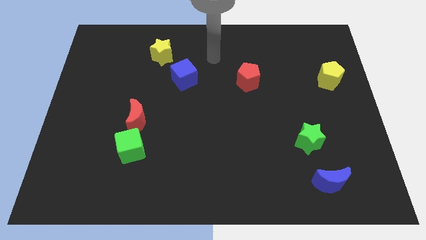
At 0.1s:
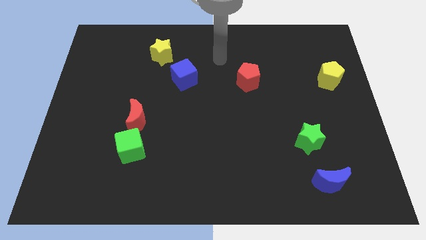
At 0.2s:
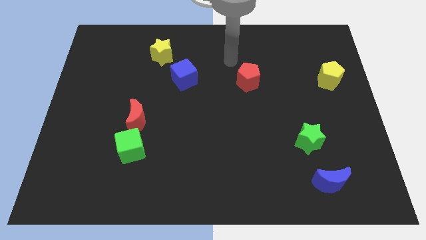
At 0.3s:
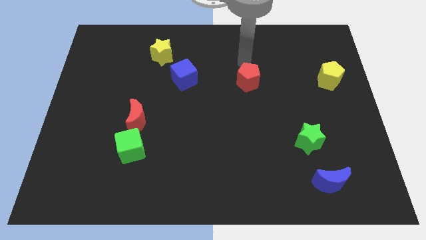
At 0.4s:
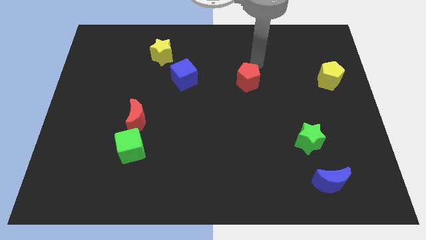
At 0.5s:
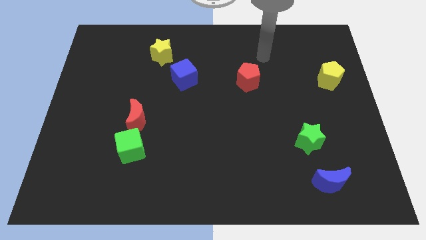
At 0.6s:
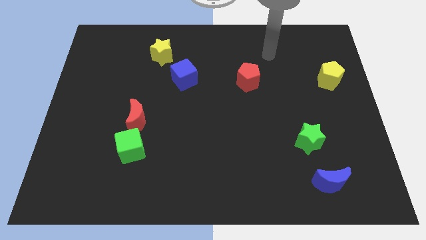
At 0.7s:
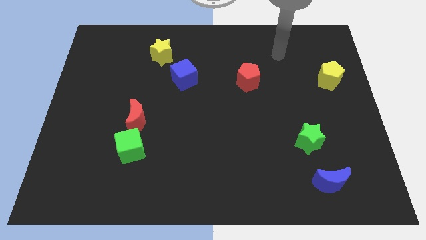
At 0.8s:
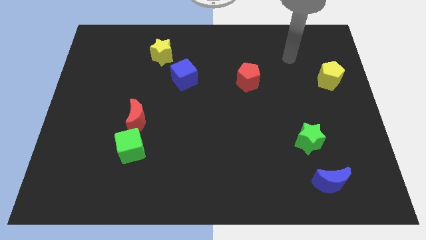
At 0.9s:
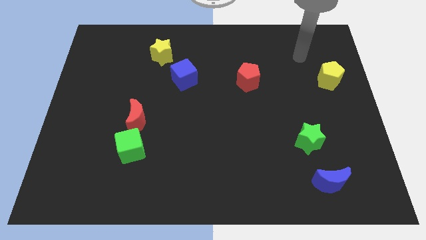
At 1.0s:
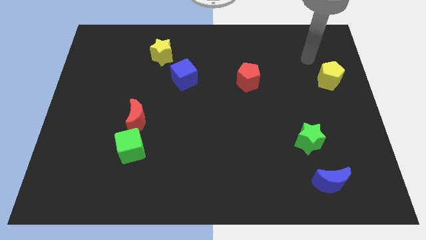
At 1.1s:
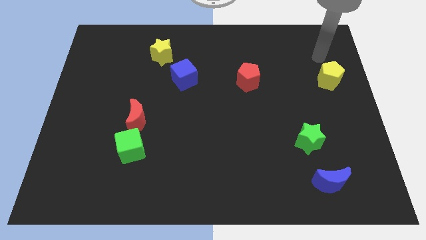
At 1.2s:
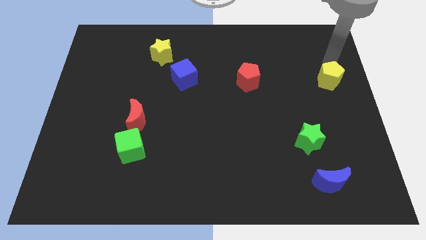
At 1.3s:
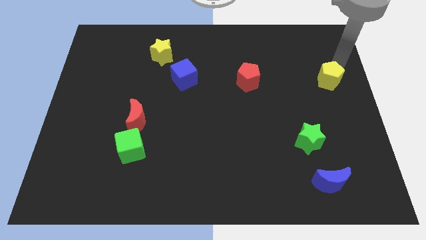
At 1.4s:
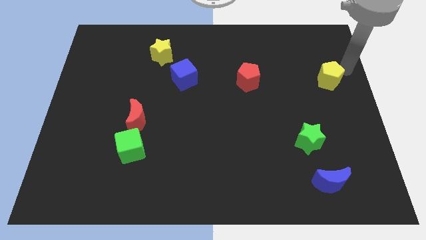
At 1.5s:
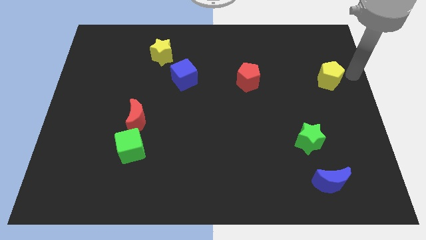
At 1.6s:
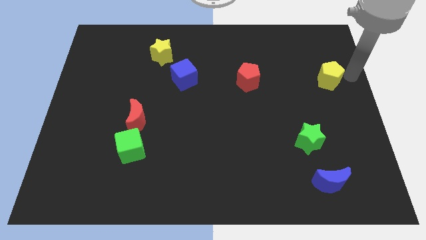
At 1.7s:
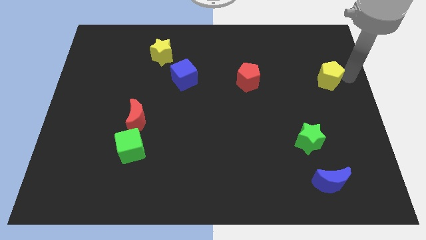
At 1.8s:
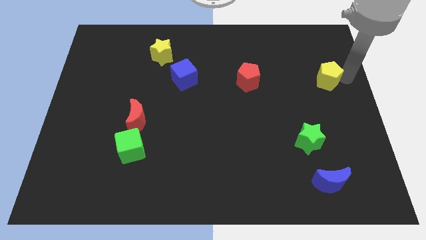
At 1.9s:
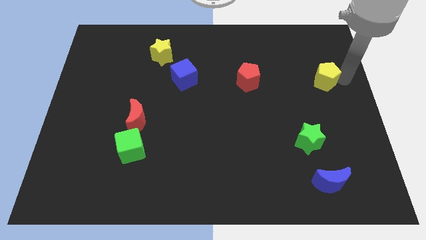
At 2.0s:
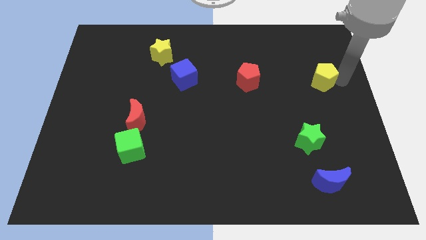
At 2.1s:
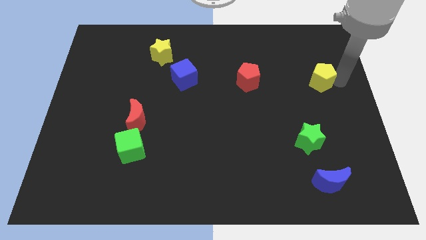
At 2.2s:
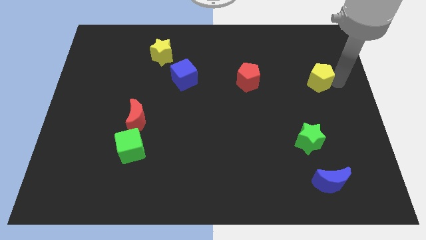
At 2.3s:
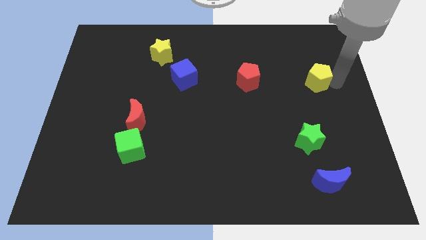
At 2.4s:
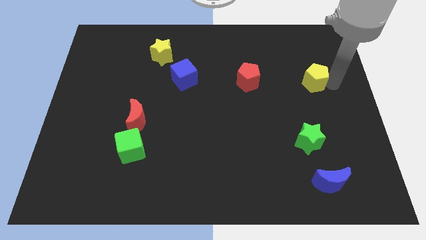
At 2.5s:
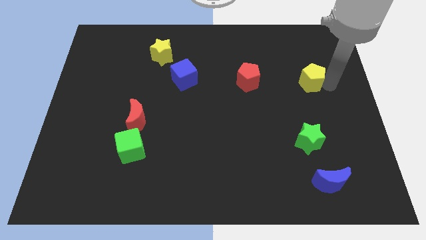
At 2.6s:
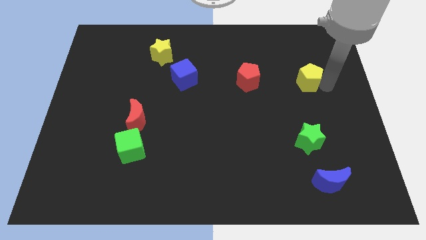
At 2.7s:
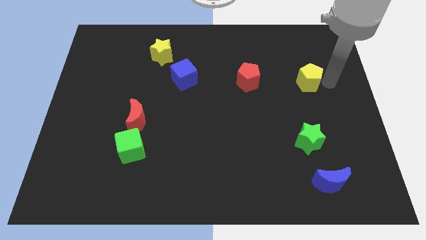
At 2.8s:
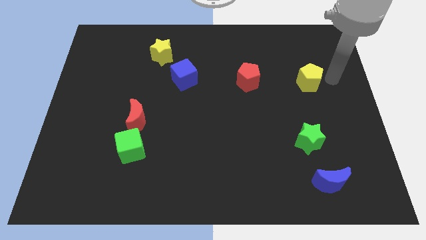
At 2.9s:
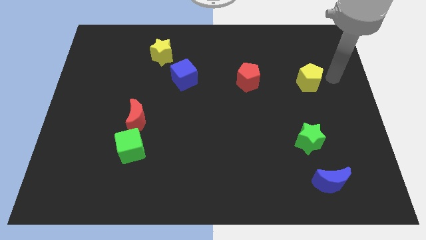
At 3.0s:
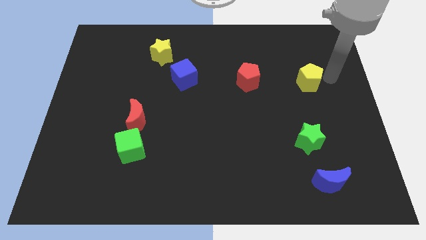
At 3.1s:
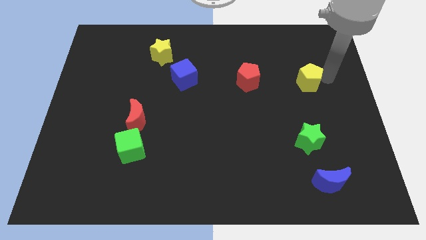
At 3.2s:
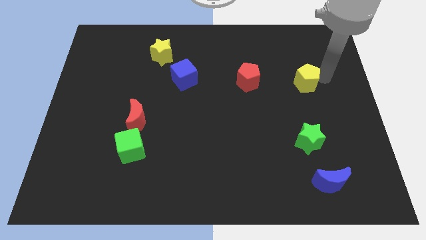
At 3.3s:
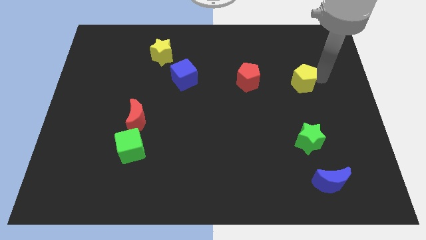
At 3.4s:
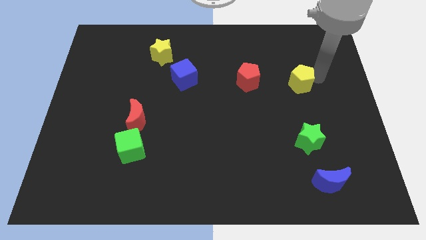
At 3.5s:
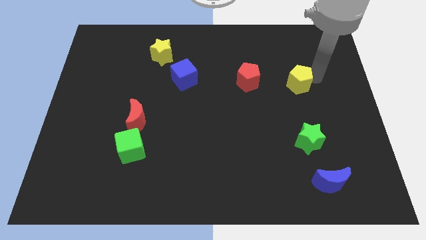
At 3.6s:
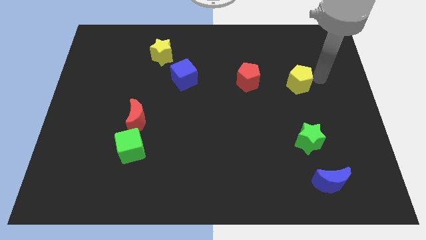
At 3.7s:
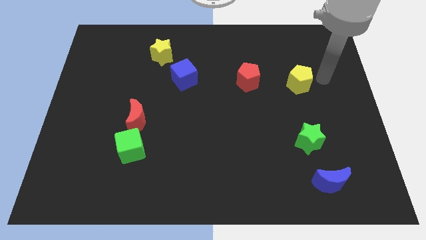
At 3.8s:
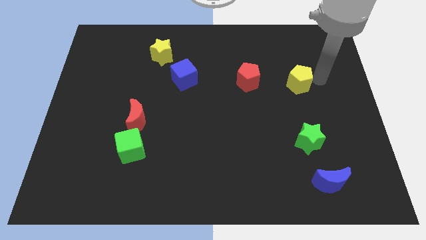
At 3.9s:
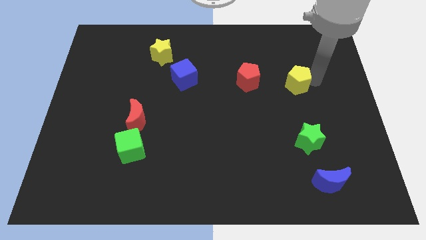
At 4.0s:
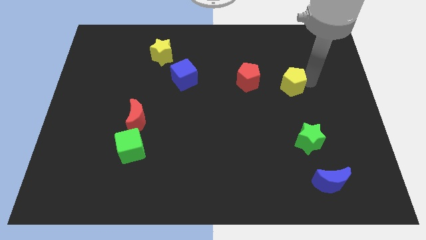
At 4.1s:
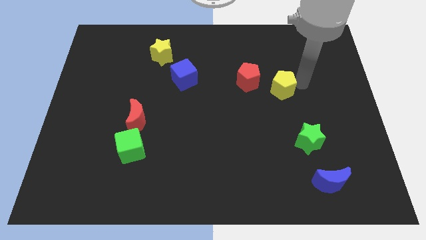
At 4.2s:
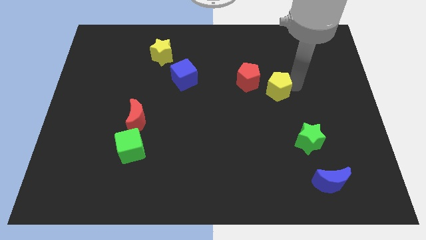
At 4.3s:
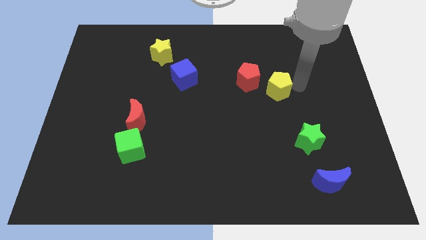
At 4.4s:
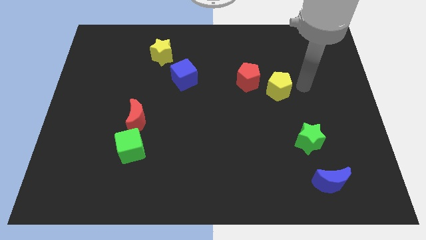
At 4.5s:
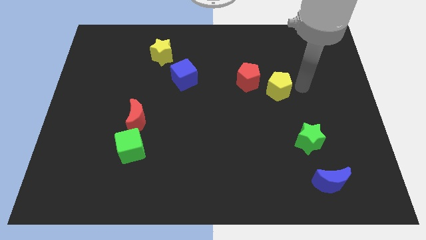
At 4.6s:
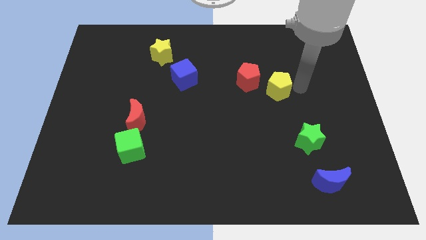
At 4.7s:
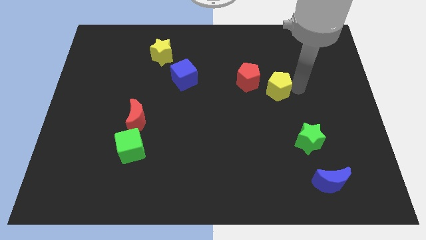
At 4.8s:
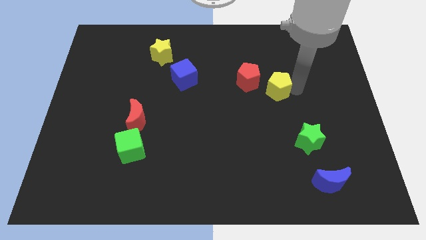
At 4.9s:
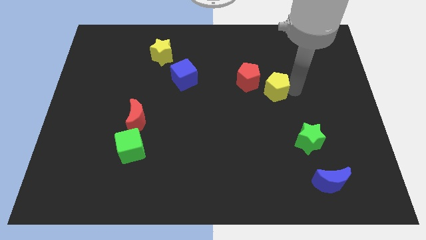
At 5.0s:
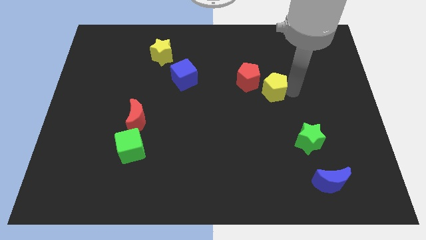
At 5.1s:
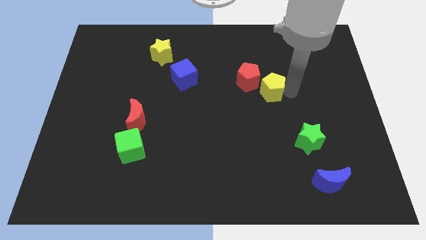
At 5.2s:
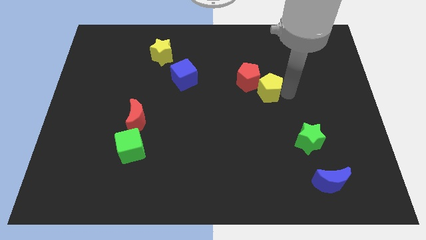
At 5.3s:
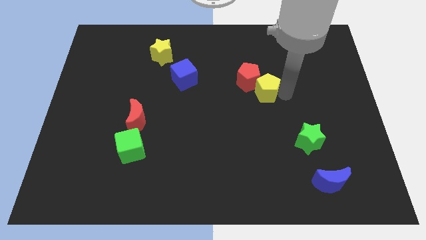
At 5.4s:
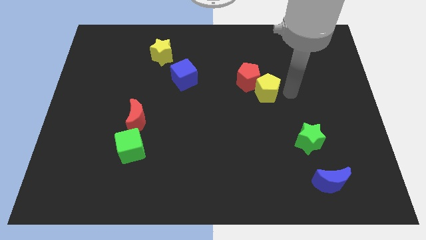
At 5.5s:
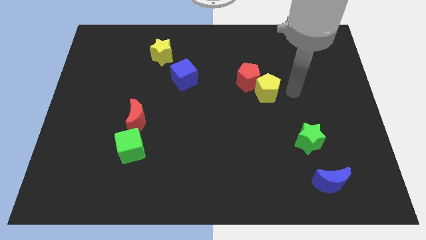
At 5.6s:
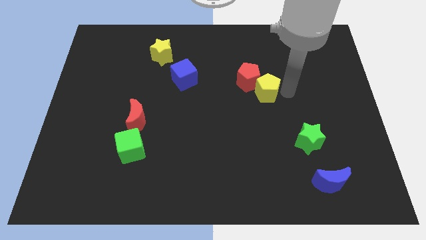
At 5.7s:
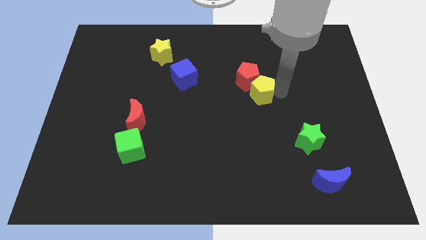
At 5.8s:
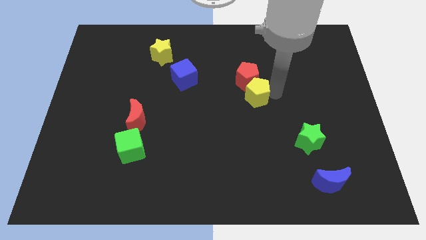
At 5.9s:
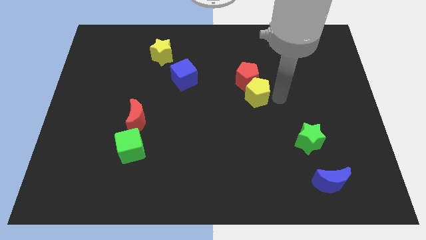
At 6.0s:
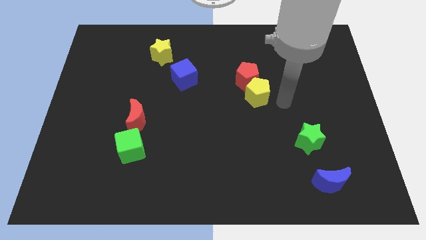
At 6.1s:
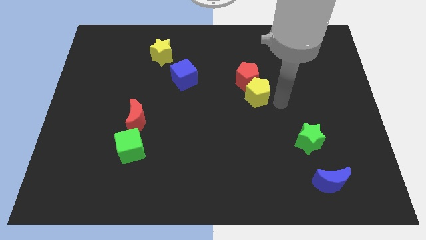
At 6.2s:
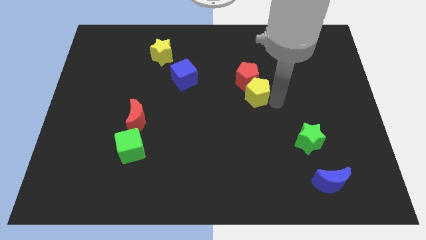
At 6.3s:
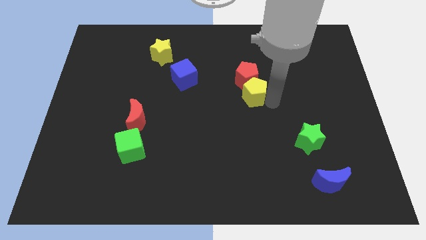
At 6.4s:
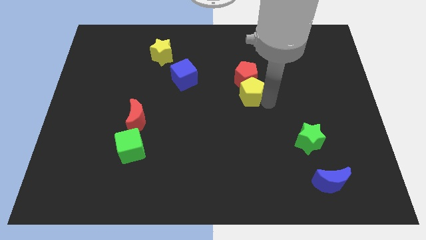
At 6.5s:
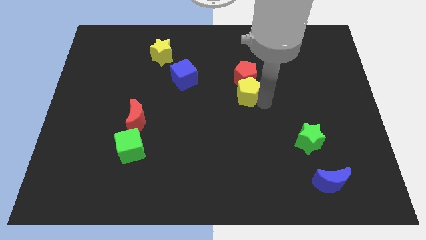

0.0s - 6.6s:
slide the yellow pentagon left

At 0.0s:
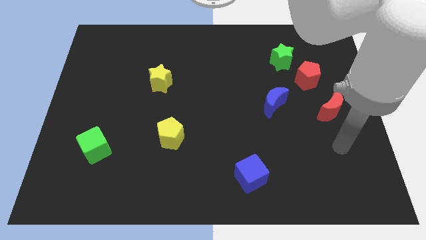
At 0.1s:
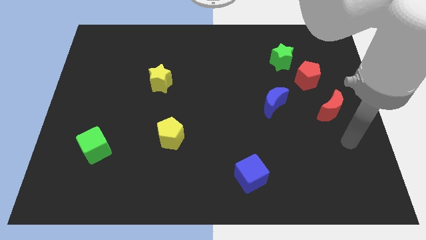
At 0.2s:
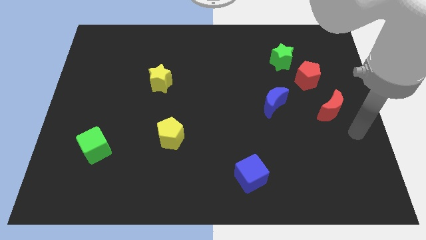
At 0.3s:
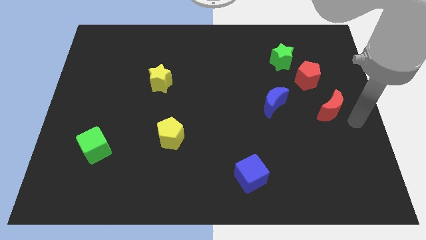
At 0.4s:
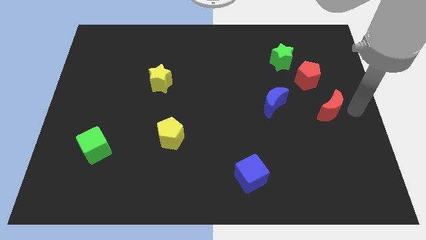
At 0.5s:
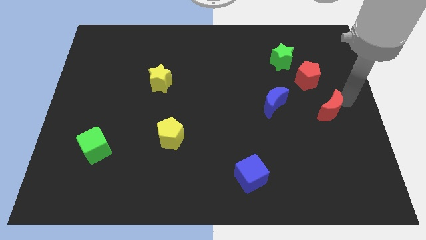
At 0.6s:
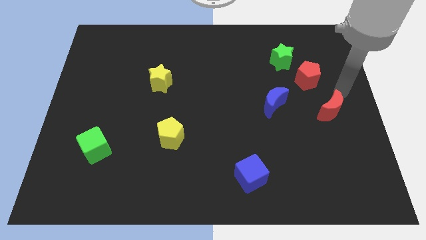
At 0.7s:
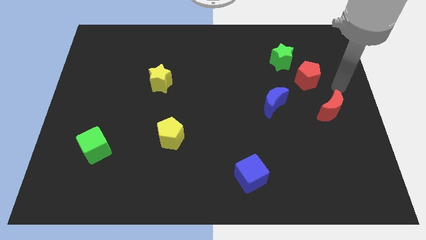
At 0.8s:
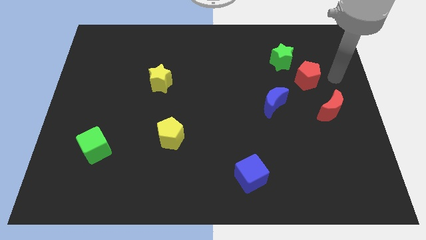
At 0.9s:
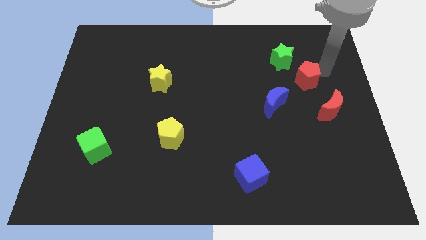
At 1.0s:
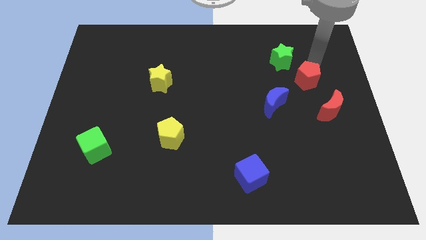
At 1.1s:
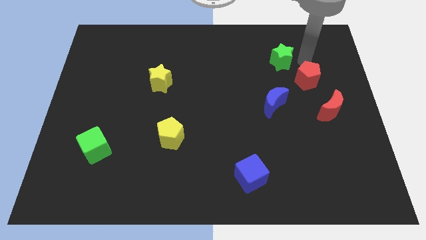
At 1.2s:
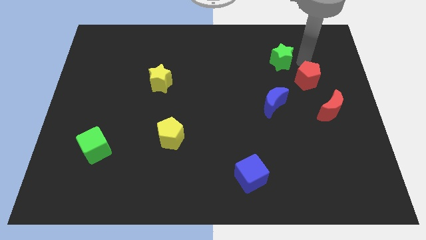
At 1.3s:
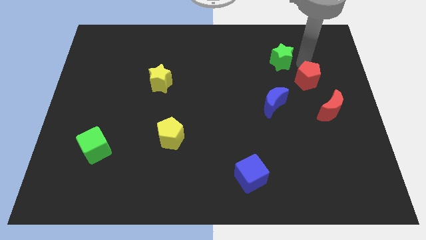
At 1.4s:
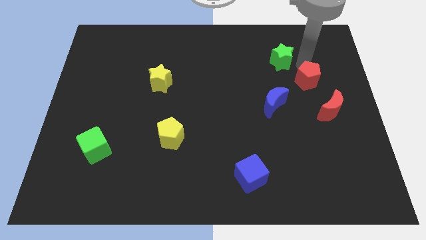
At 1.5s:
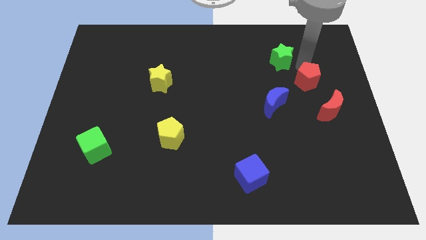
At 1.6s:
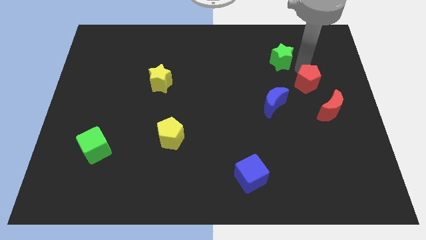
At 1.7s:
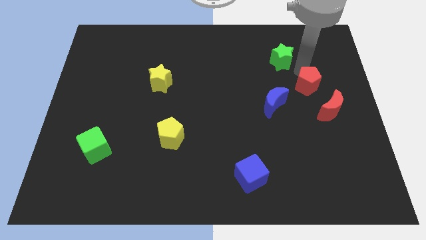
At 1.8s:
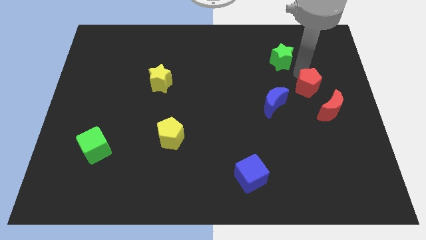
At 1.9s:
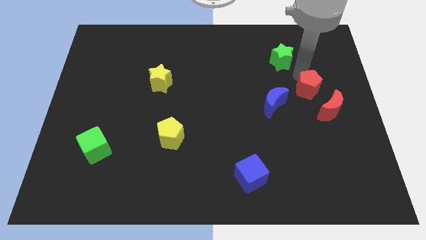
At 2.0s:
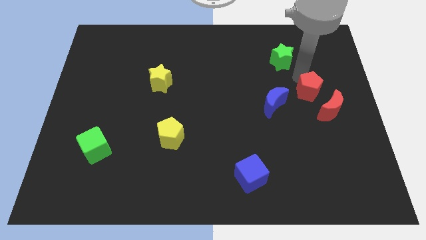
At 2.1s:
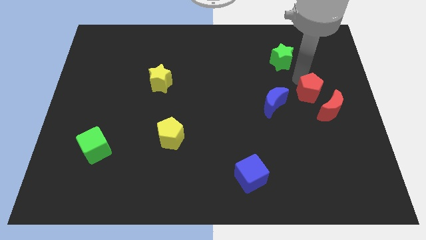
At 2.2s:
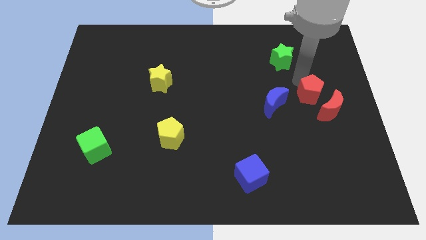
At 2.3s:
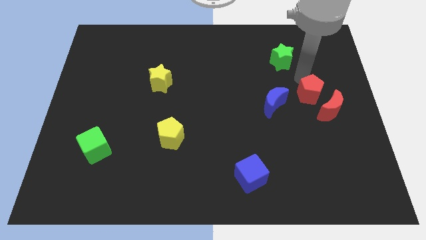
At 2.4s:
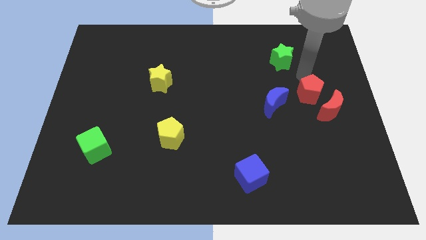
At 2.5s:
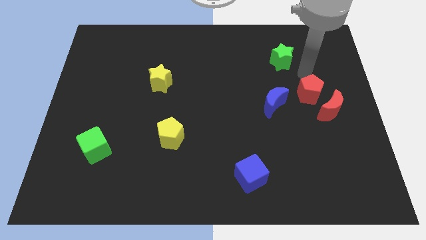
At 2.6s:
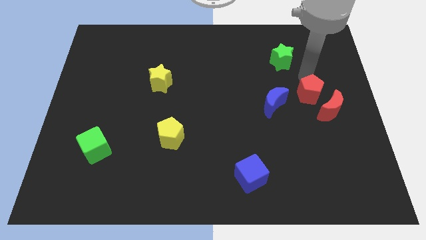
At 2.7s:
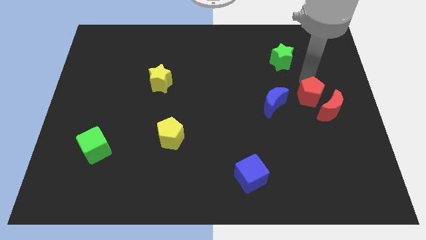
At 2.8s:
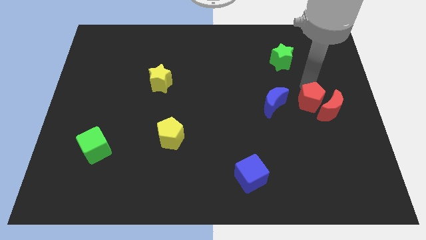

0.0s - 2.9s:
move the red pentagon a little downwards
